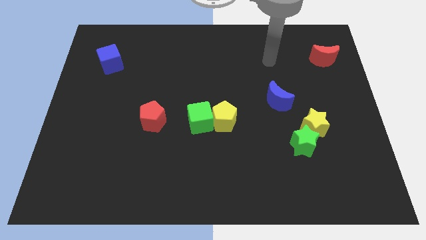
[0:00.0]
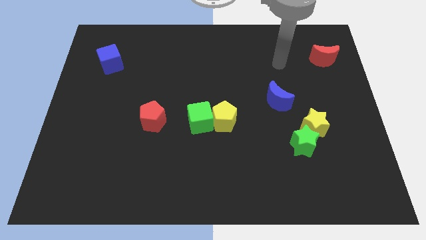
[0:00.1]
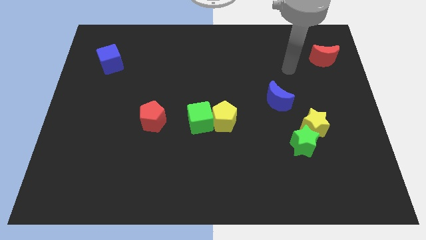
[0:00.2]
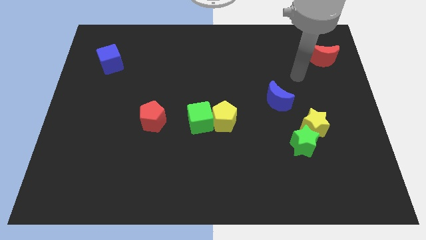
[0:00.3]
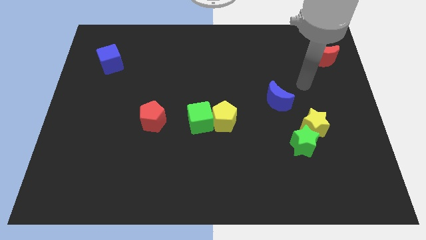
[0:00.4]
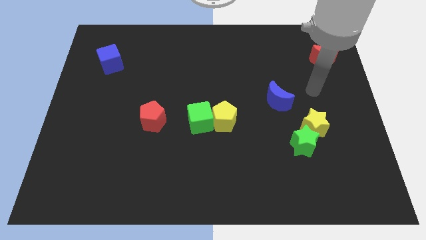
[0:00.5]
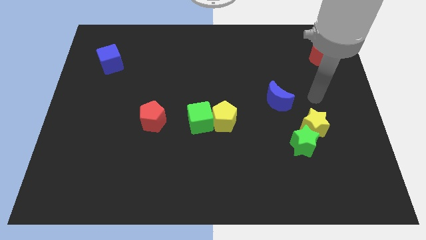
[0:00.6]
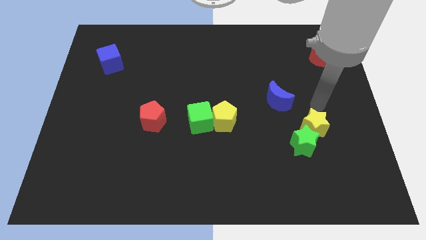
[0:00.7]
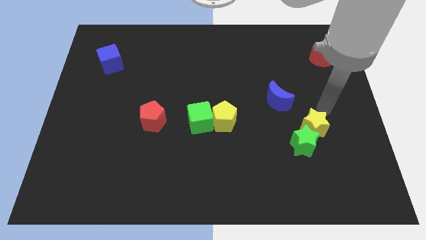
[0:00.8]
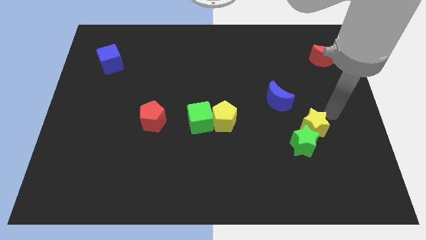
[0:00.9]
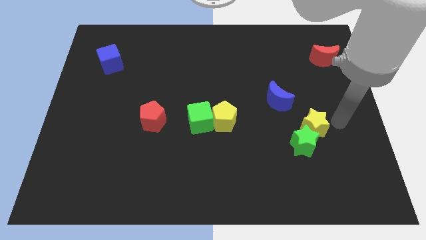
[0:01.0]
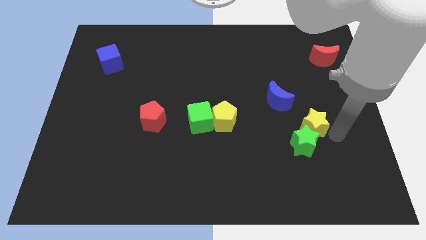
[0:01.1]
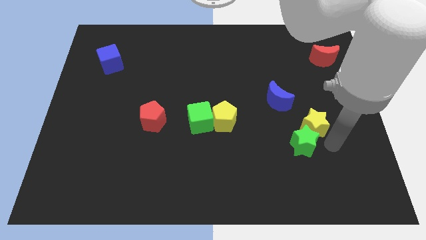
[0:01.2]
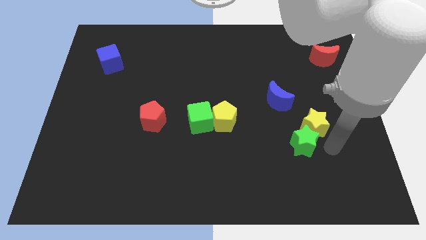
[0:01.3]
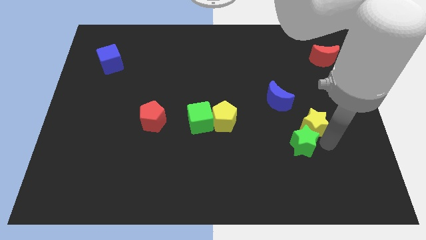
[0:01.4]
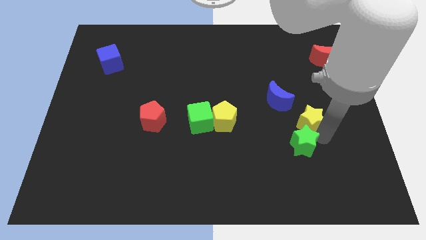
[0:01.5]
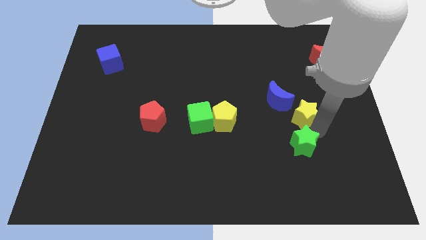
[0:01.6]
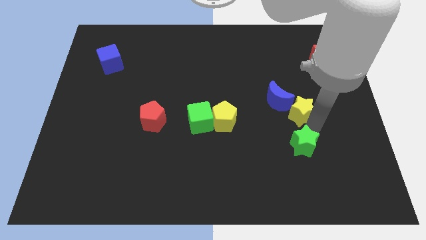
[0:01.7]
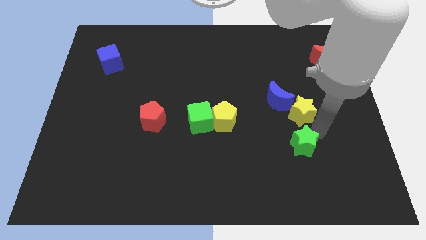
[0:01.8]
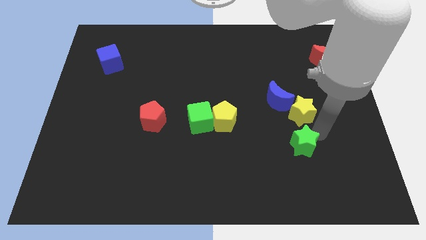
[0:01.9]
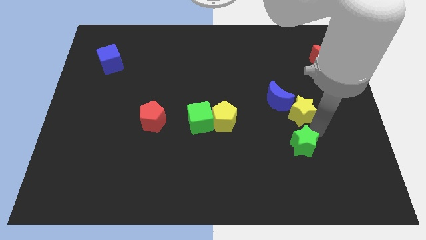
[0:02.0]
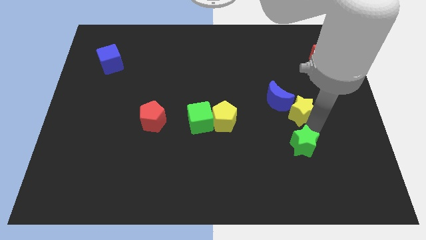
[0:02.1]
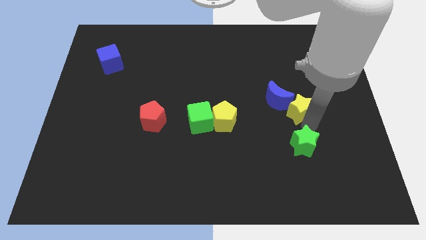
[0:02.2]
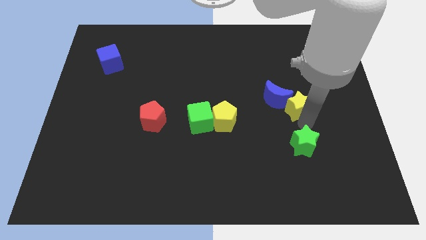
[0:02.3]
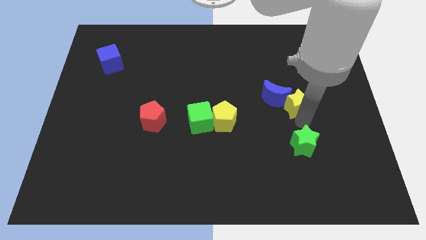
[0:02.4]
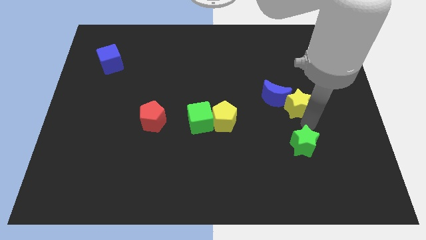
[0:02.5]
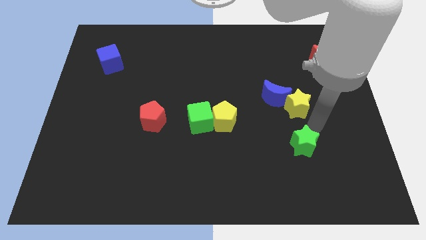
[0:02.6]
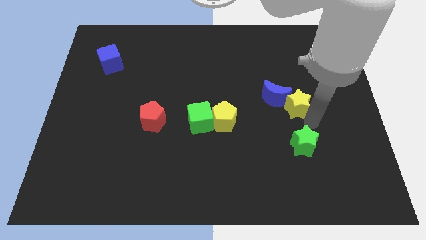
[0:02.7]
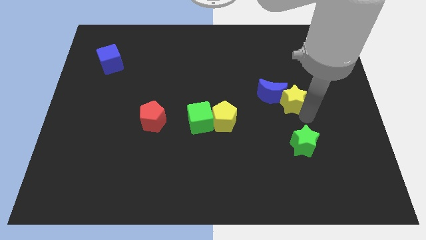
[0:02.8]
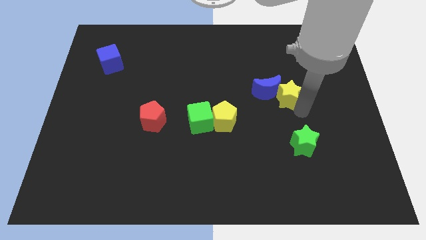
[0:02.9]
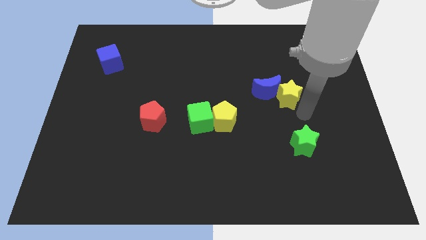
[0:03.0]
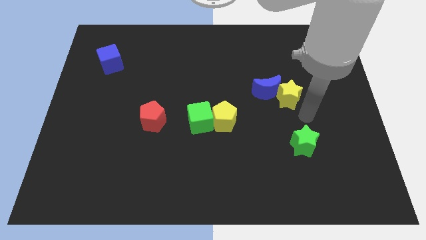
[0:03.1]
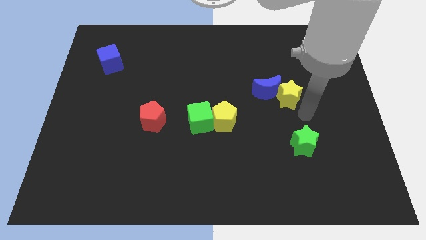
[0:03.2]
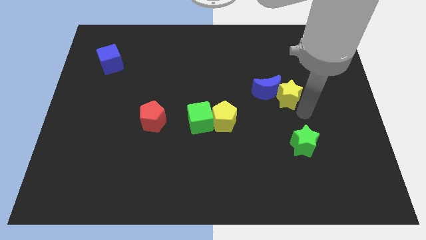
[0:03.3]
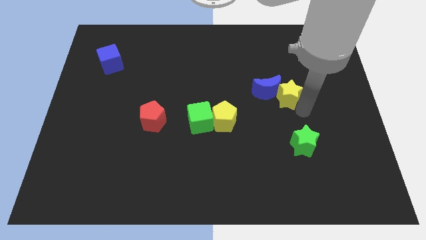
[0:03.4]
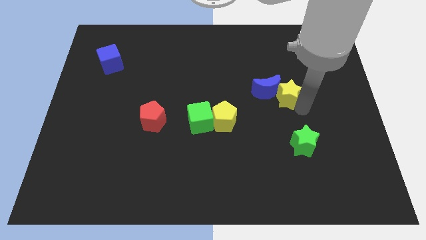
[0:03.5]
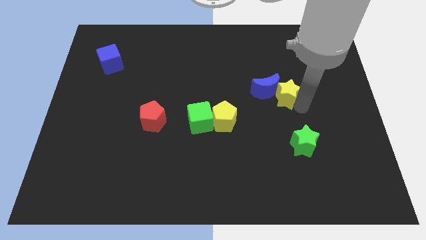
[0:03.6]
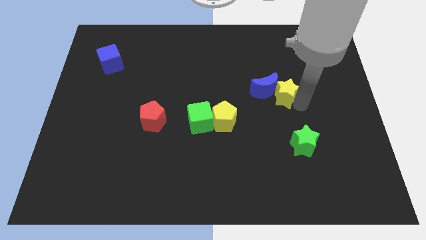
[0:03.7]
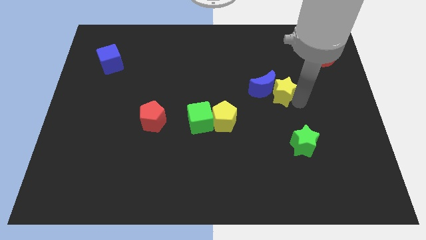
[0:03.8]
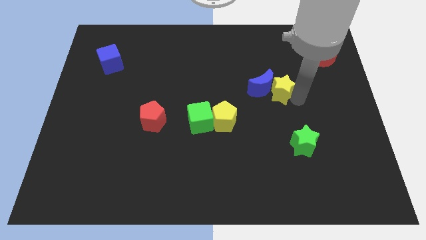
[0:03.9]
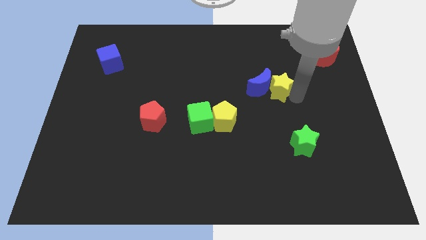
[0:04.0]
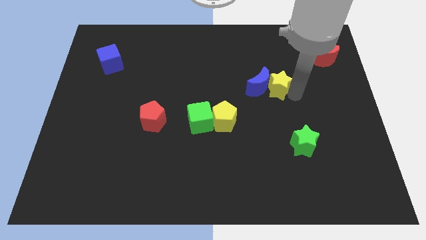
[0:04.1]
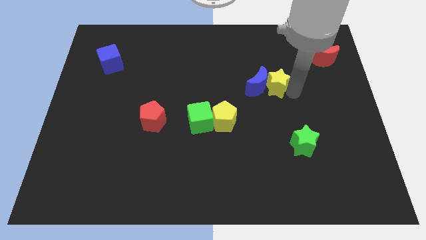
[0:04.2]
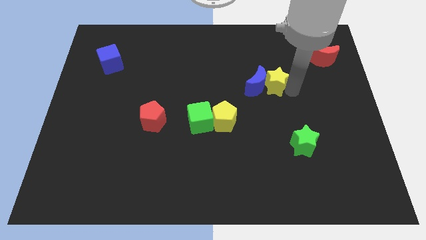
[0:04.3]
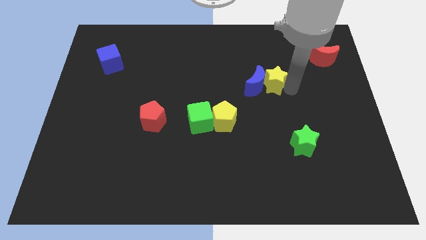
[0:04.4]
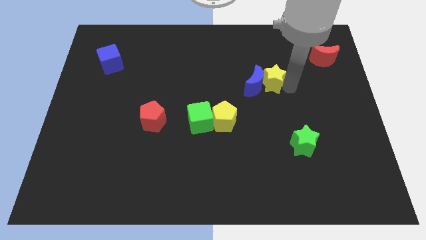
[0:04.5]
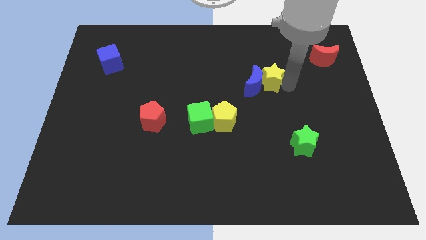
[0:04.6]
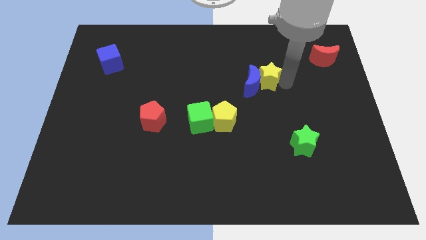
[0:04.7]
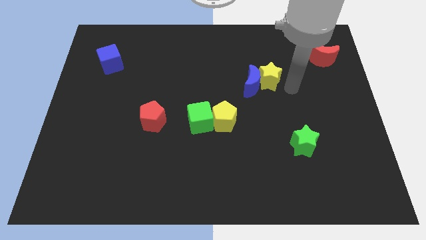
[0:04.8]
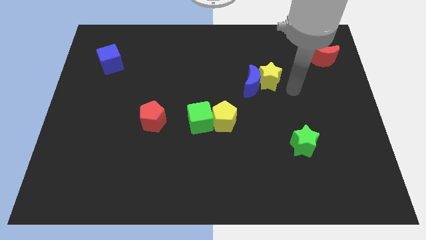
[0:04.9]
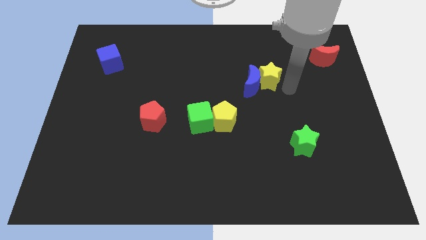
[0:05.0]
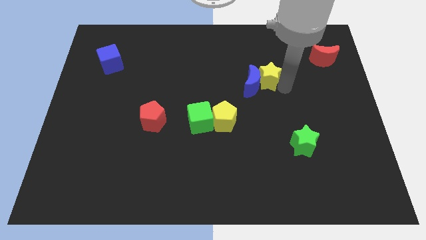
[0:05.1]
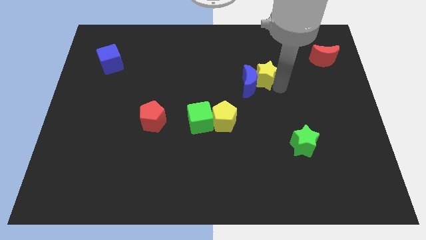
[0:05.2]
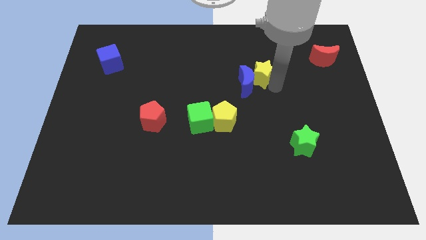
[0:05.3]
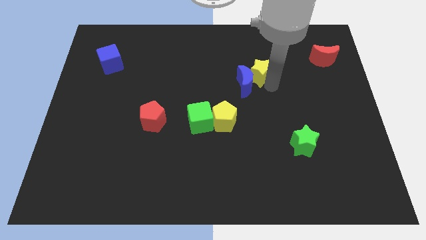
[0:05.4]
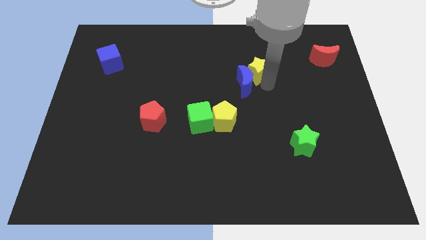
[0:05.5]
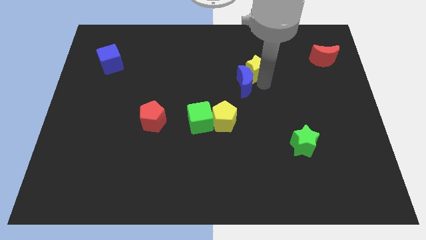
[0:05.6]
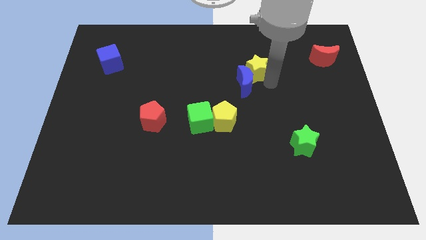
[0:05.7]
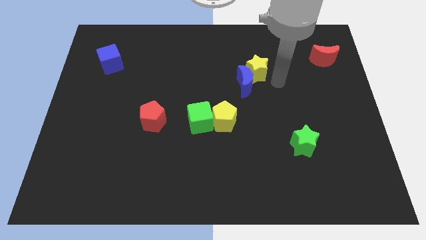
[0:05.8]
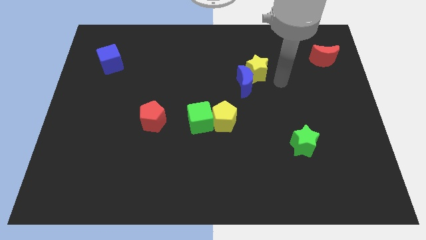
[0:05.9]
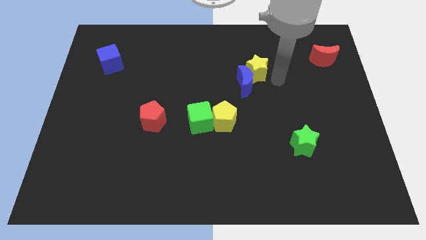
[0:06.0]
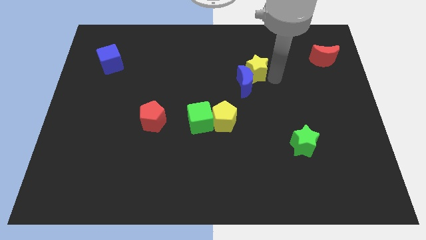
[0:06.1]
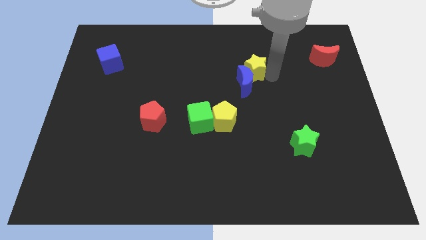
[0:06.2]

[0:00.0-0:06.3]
move the yellow star upwards and left diagonally

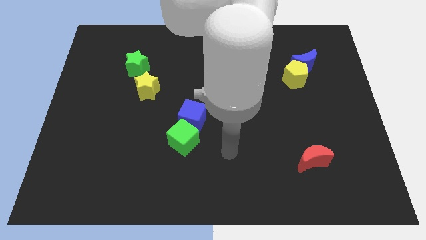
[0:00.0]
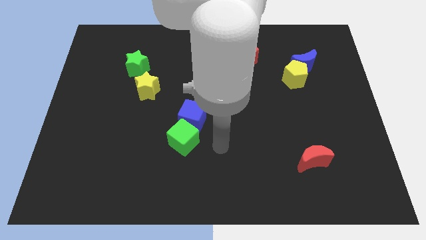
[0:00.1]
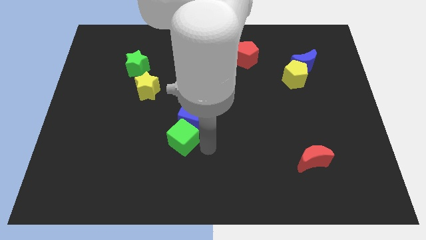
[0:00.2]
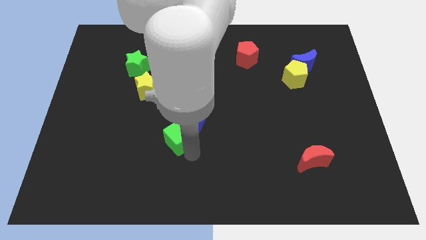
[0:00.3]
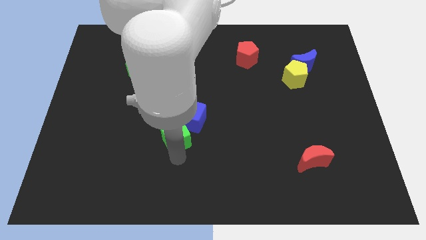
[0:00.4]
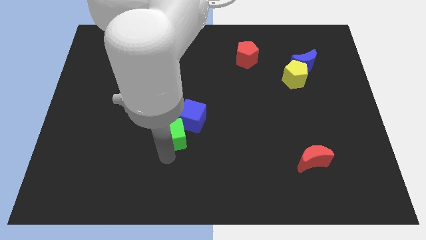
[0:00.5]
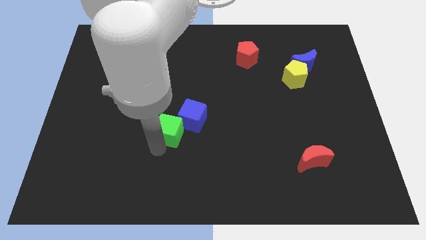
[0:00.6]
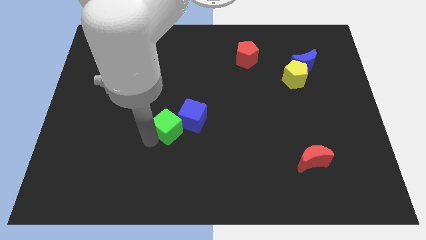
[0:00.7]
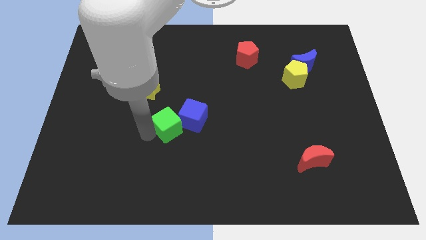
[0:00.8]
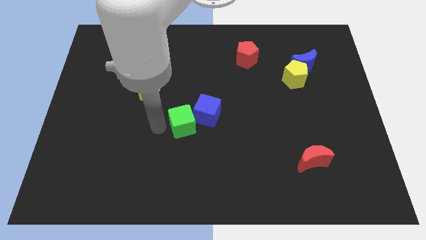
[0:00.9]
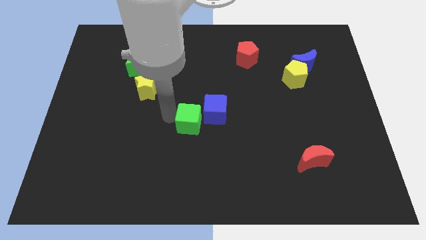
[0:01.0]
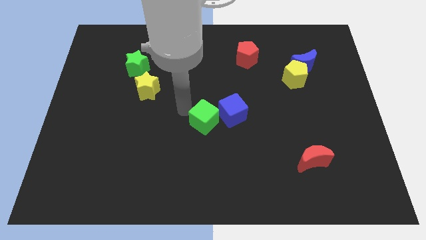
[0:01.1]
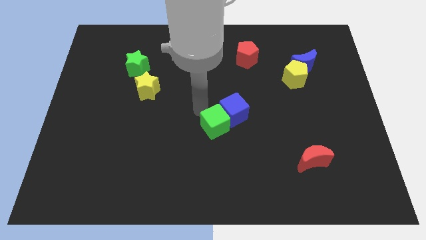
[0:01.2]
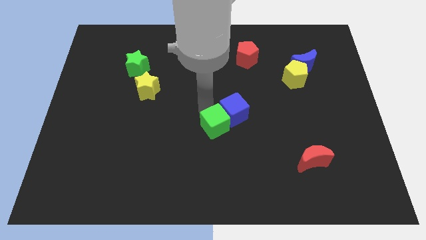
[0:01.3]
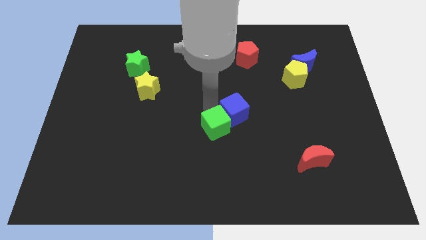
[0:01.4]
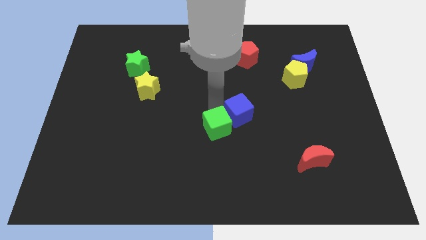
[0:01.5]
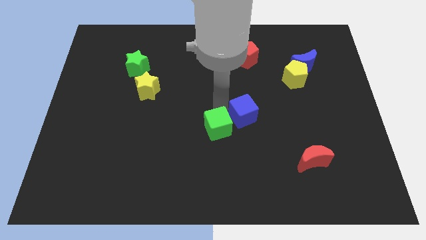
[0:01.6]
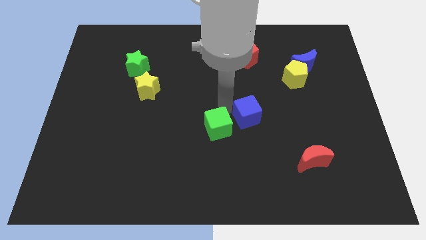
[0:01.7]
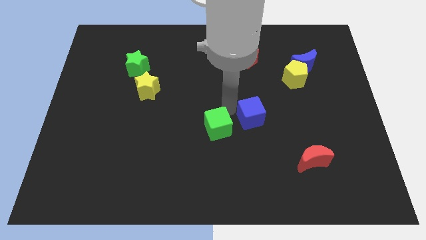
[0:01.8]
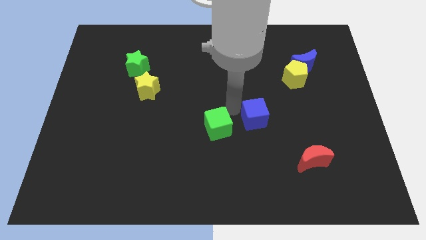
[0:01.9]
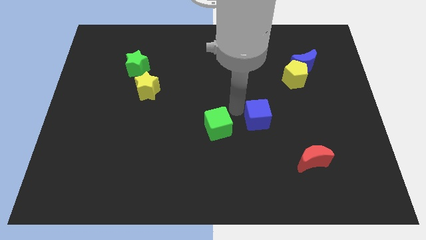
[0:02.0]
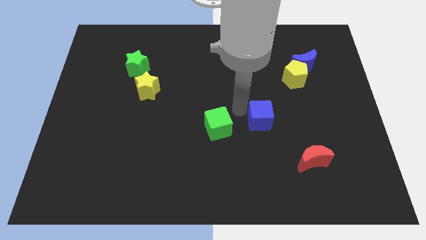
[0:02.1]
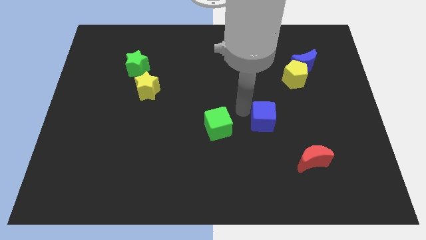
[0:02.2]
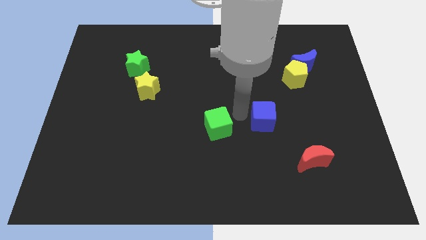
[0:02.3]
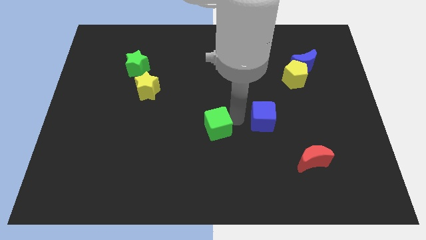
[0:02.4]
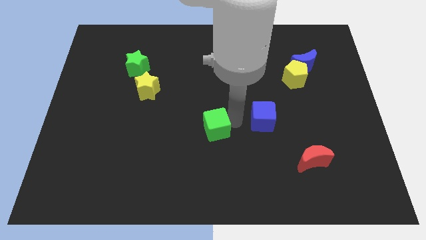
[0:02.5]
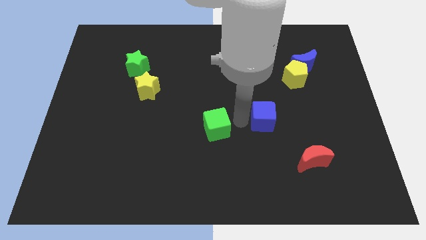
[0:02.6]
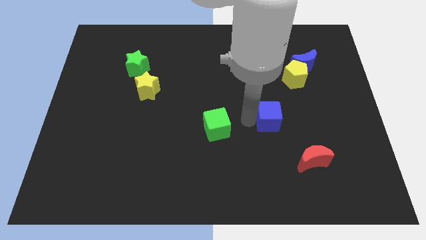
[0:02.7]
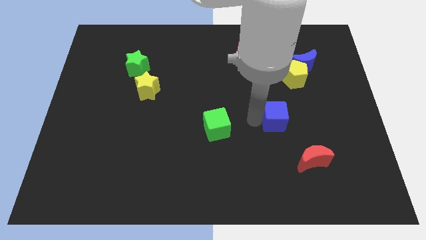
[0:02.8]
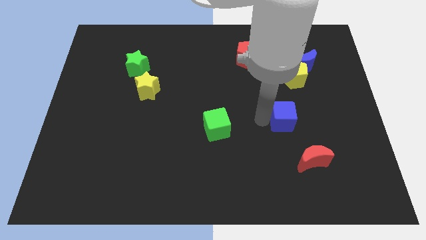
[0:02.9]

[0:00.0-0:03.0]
slide the blue cube right
